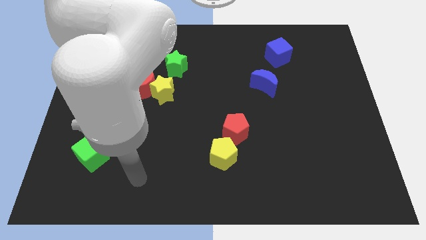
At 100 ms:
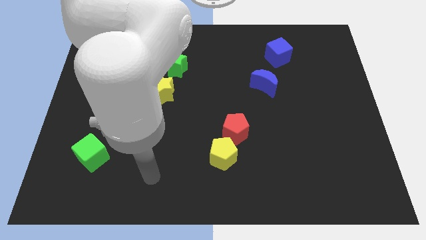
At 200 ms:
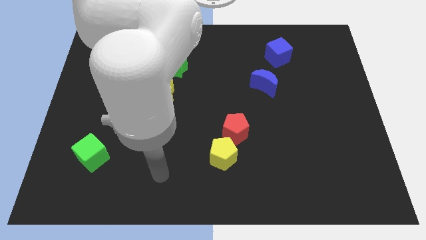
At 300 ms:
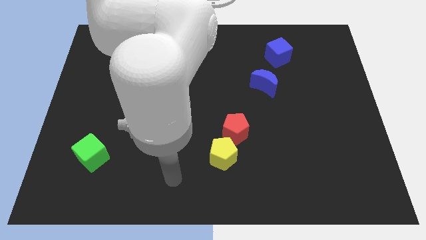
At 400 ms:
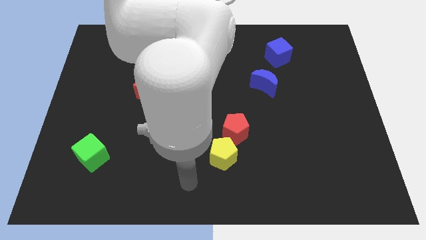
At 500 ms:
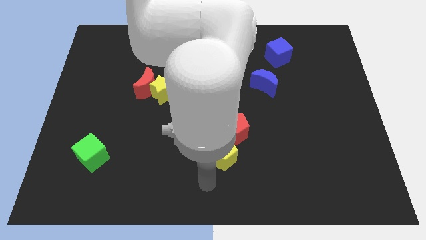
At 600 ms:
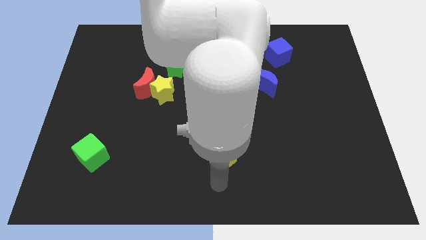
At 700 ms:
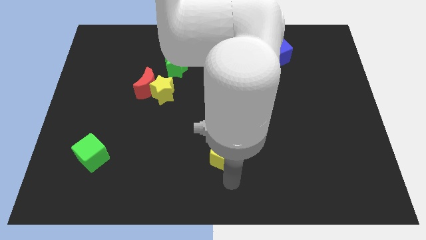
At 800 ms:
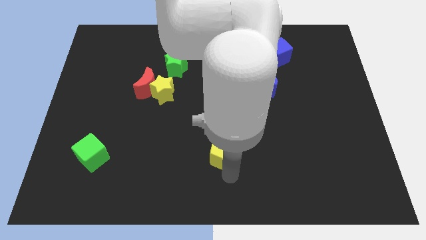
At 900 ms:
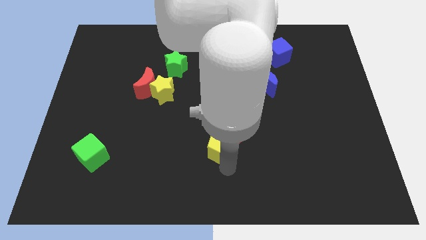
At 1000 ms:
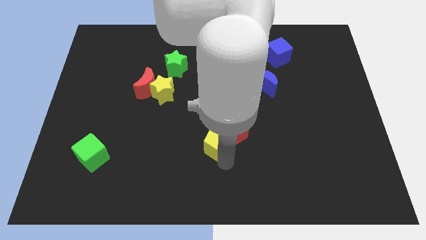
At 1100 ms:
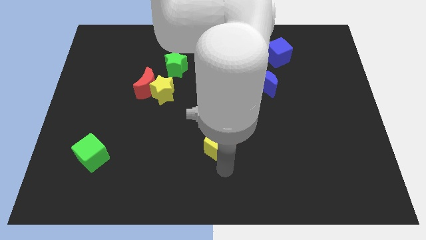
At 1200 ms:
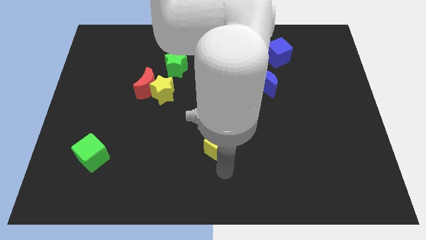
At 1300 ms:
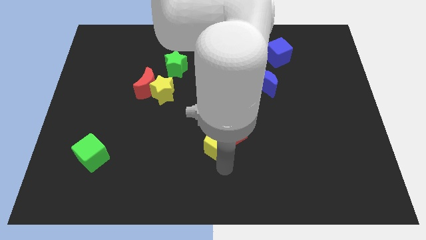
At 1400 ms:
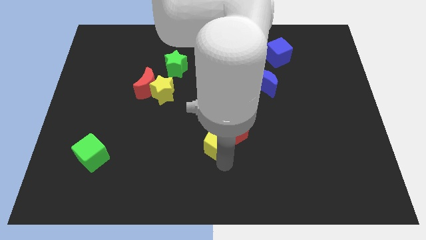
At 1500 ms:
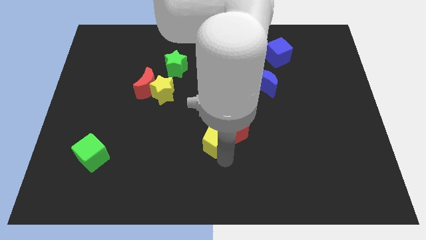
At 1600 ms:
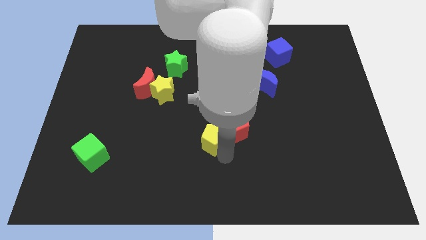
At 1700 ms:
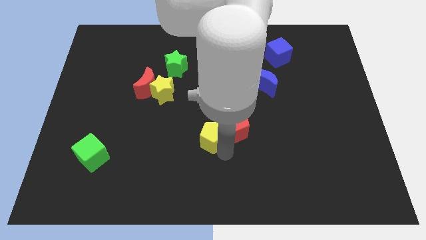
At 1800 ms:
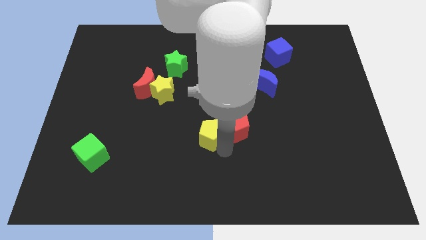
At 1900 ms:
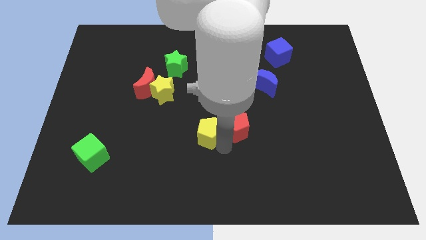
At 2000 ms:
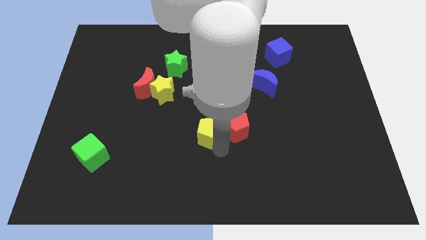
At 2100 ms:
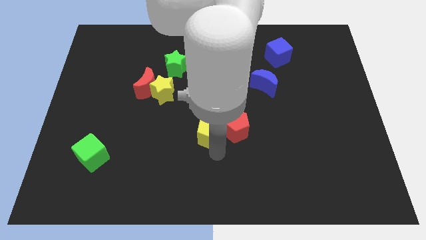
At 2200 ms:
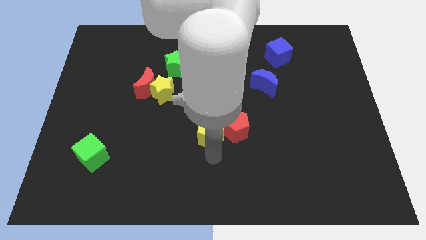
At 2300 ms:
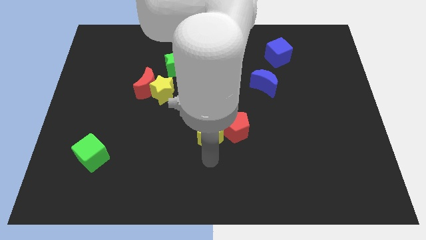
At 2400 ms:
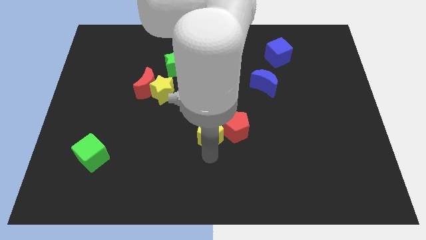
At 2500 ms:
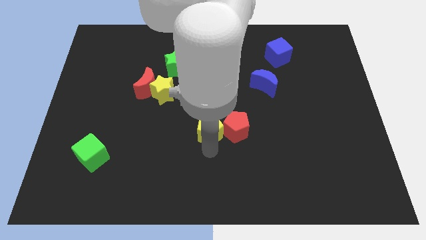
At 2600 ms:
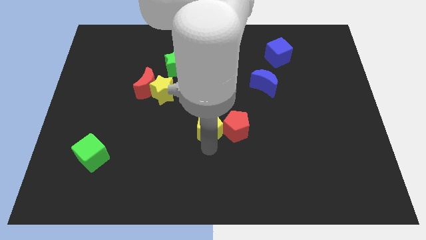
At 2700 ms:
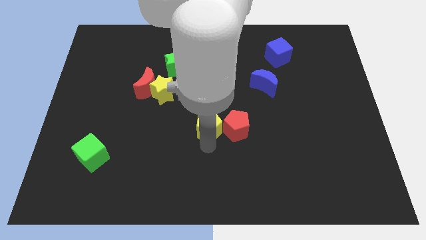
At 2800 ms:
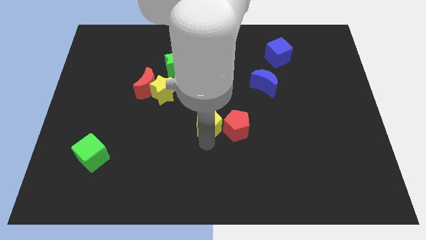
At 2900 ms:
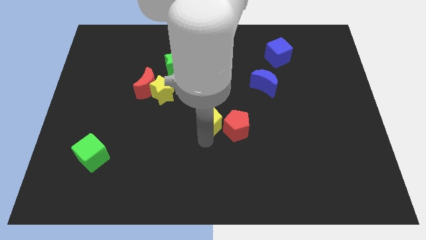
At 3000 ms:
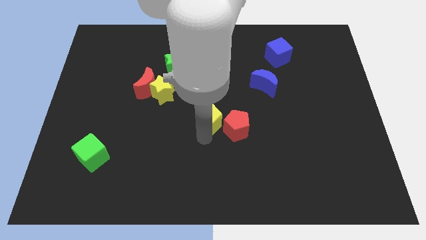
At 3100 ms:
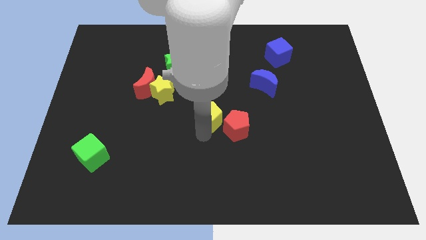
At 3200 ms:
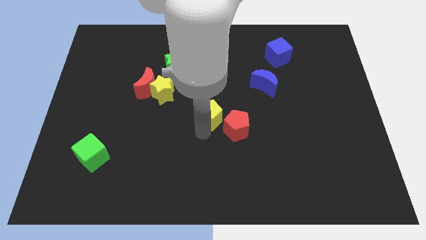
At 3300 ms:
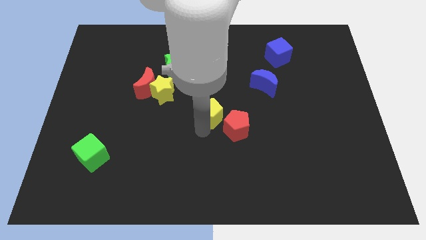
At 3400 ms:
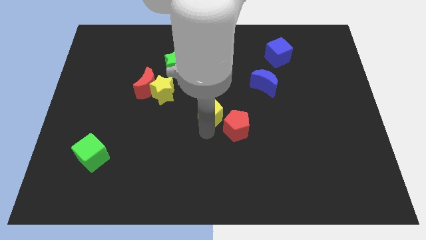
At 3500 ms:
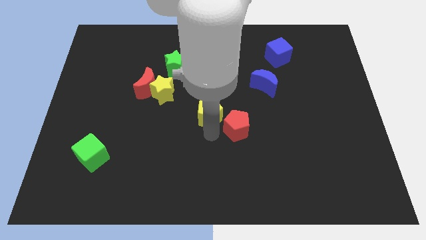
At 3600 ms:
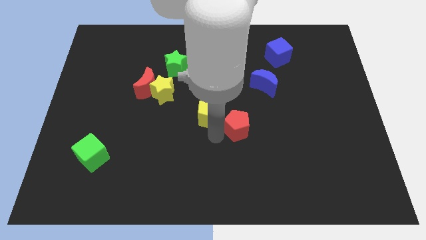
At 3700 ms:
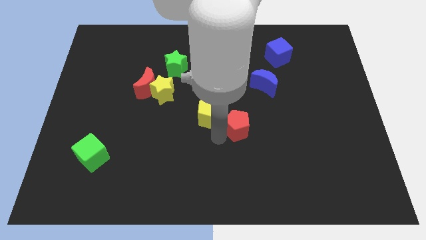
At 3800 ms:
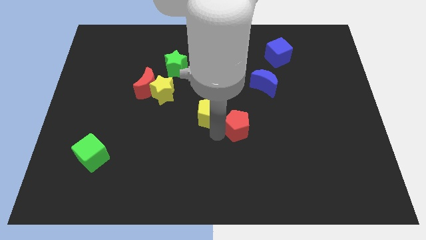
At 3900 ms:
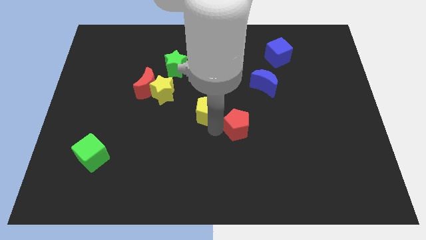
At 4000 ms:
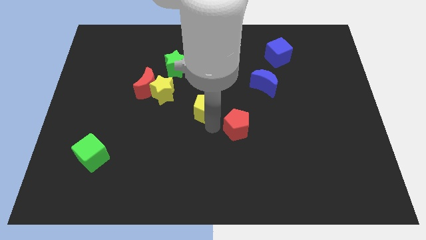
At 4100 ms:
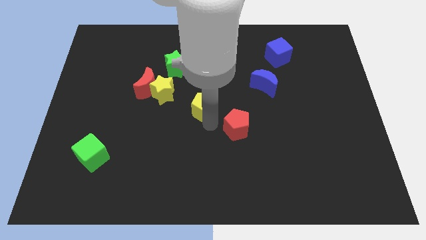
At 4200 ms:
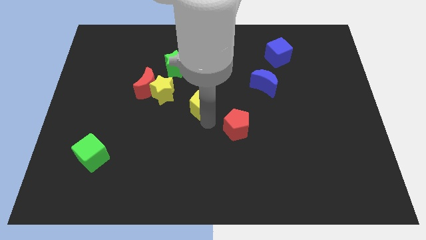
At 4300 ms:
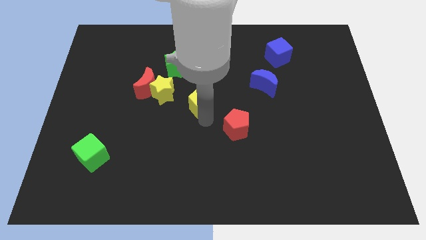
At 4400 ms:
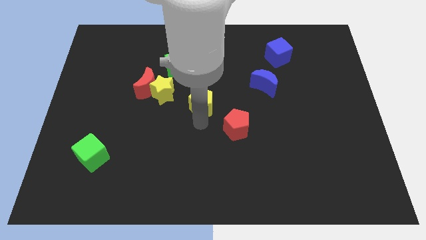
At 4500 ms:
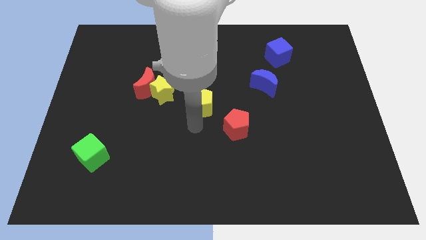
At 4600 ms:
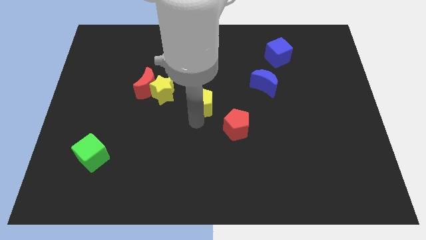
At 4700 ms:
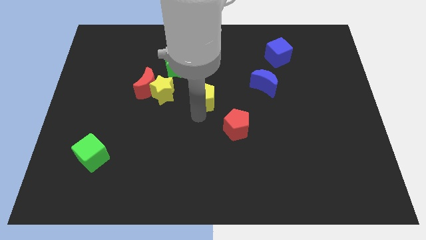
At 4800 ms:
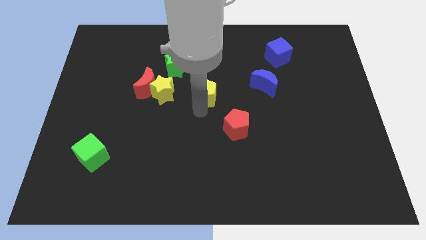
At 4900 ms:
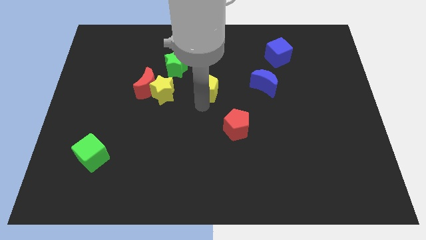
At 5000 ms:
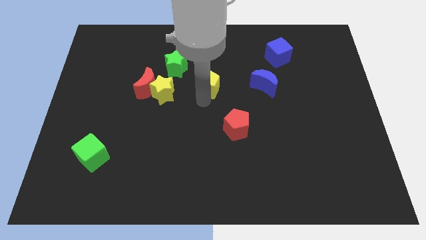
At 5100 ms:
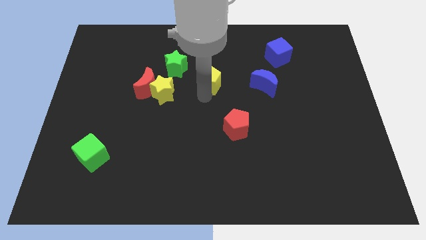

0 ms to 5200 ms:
move the yellow pentagon just right of the green star

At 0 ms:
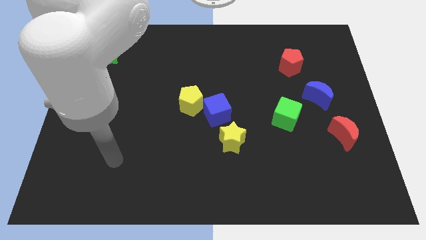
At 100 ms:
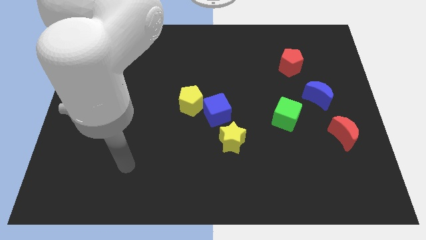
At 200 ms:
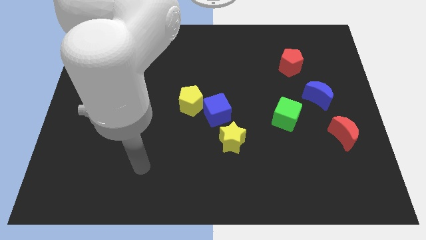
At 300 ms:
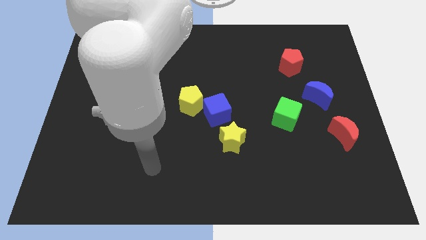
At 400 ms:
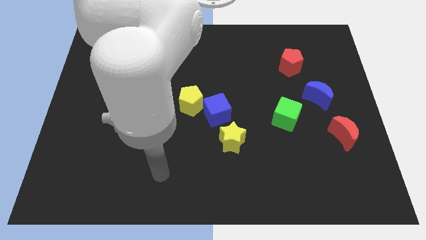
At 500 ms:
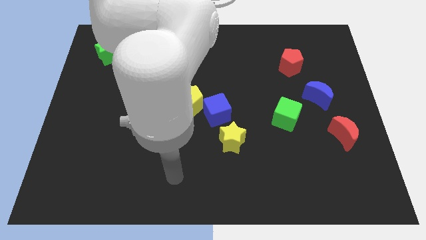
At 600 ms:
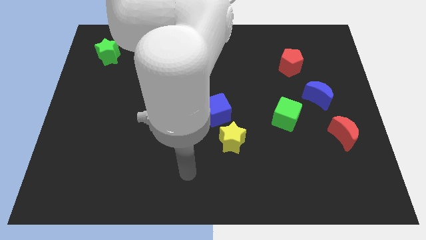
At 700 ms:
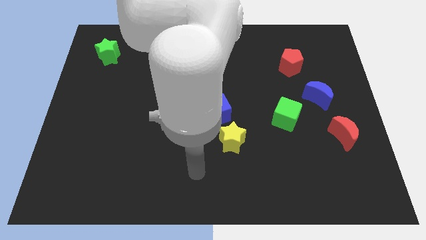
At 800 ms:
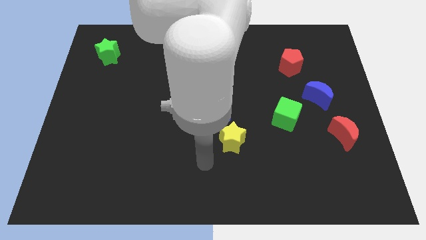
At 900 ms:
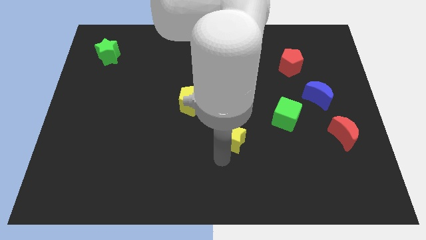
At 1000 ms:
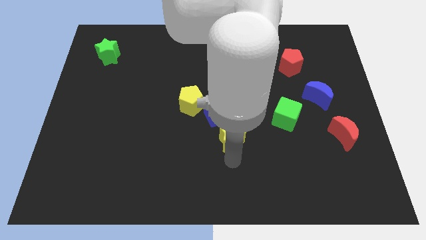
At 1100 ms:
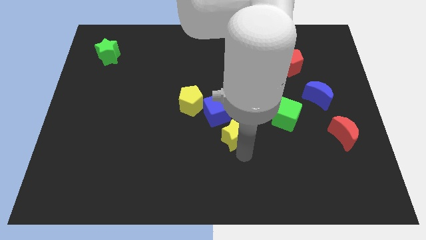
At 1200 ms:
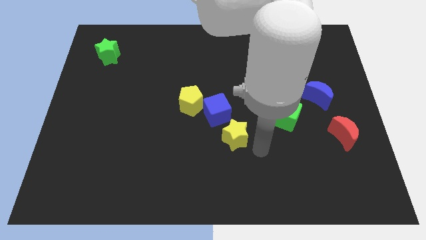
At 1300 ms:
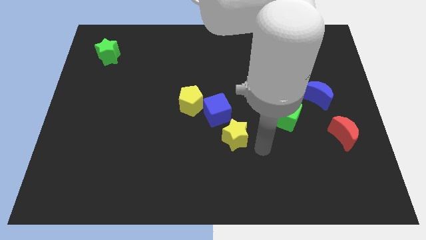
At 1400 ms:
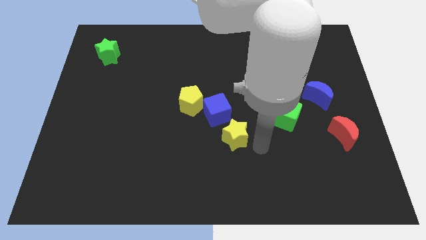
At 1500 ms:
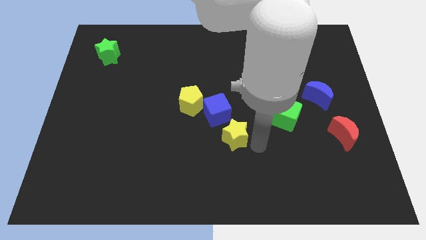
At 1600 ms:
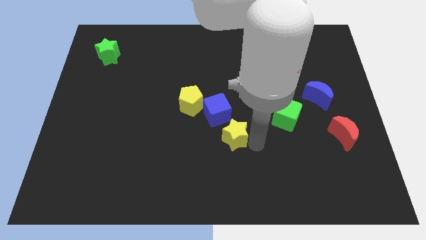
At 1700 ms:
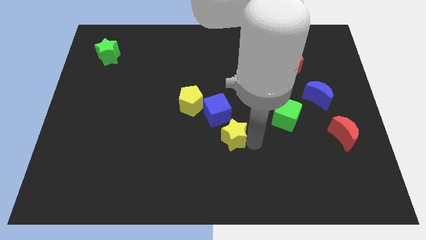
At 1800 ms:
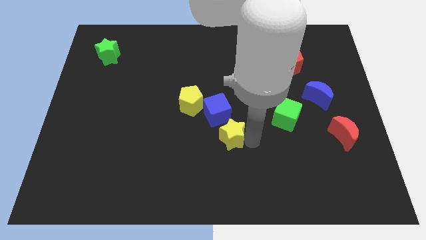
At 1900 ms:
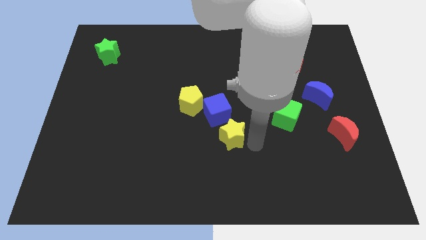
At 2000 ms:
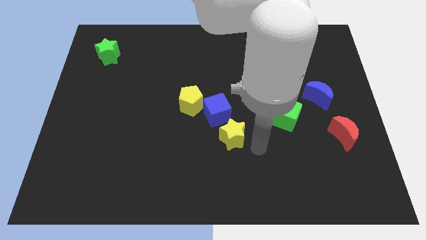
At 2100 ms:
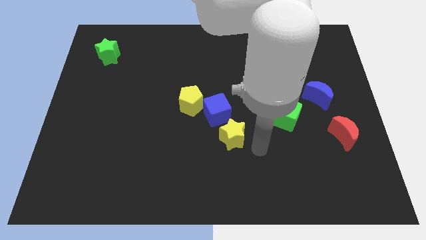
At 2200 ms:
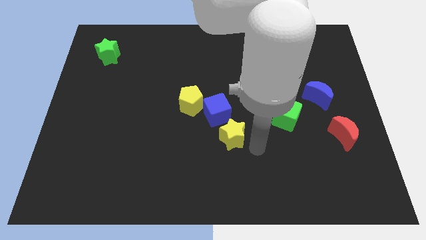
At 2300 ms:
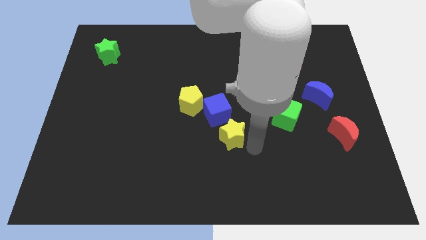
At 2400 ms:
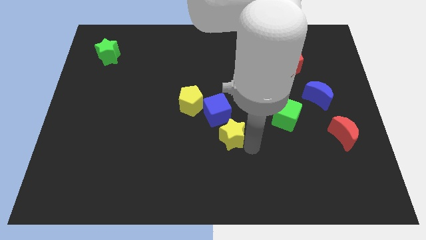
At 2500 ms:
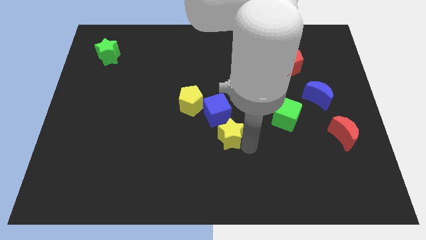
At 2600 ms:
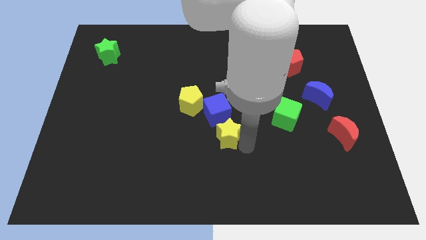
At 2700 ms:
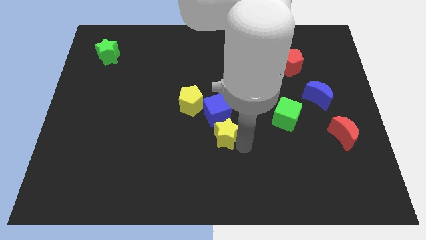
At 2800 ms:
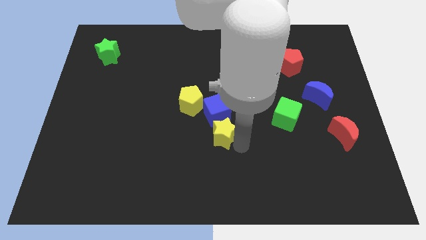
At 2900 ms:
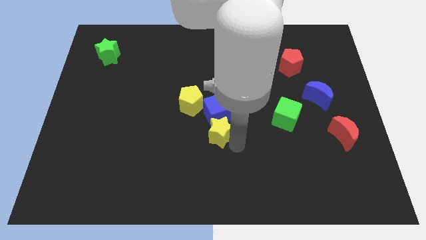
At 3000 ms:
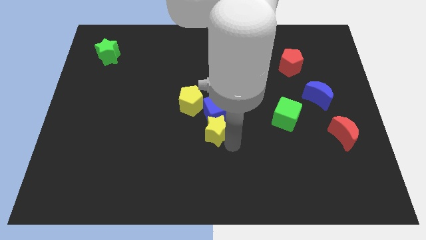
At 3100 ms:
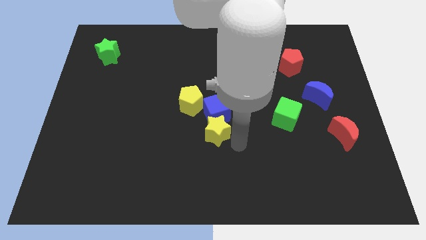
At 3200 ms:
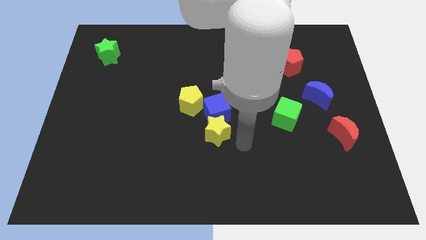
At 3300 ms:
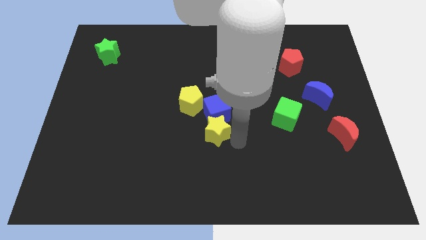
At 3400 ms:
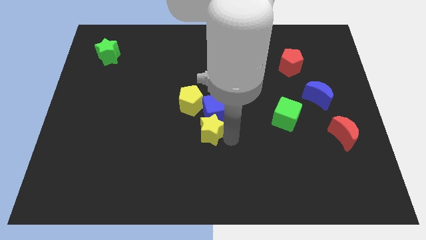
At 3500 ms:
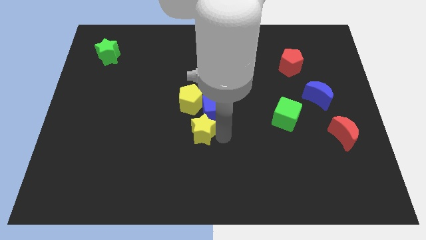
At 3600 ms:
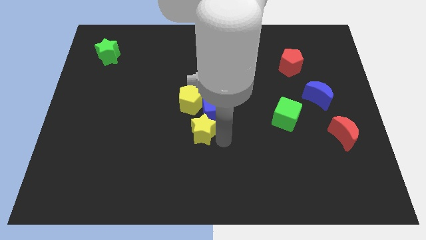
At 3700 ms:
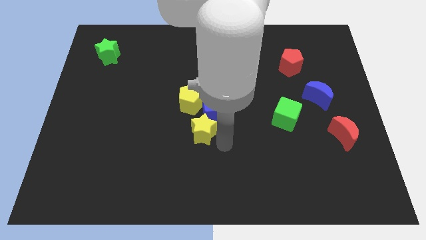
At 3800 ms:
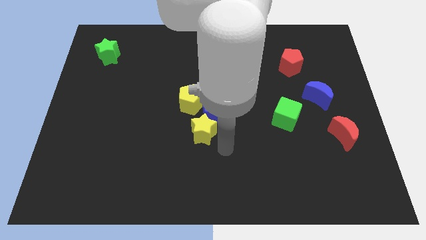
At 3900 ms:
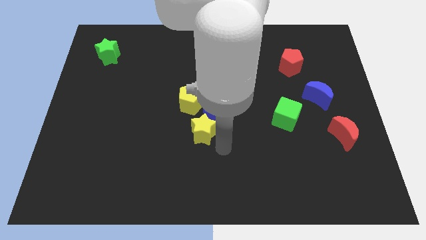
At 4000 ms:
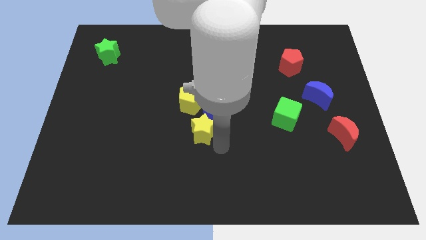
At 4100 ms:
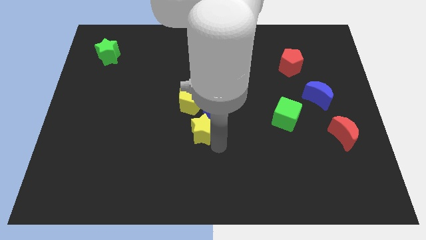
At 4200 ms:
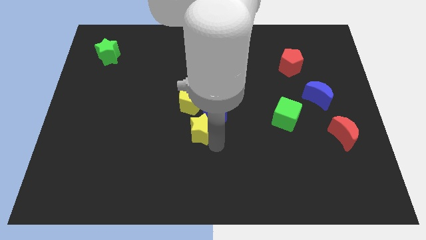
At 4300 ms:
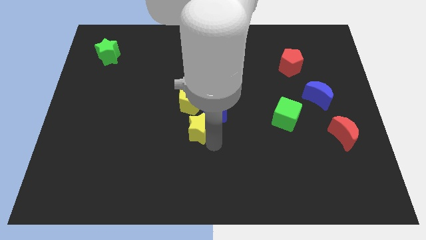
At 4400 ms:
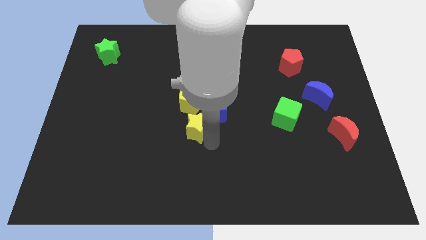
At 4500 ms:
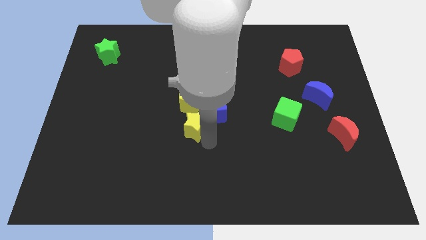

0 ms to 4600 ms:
push the yellow star left of the blue cube
